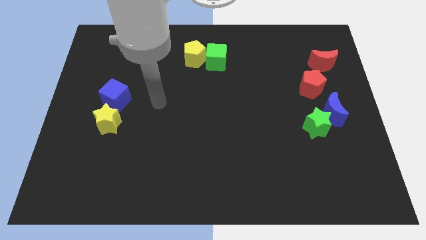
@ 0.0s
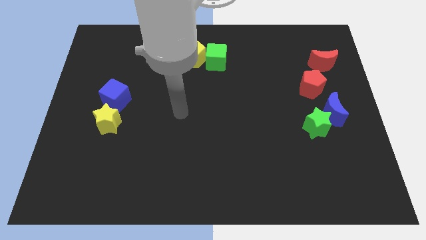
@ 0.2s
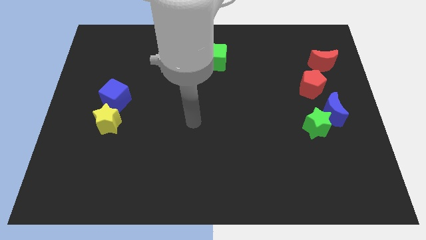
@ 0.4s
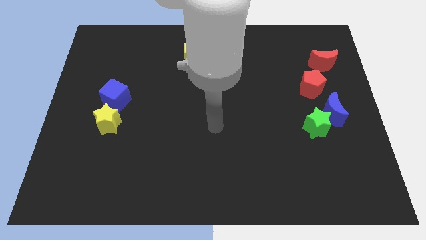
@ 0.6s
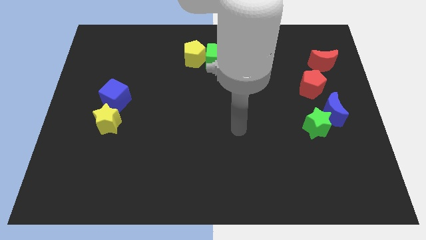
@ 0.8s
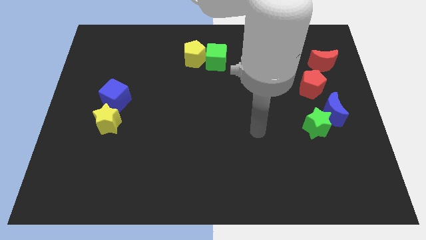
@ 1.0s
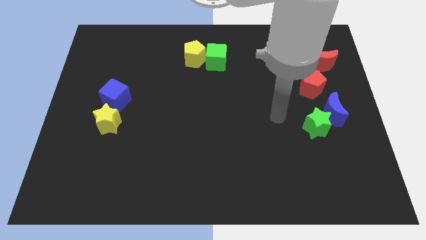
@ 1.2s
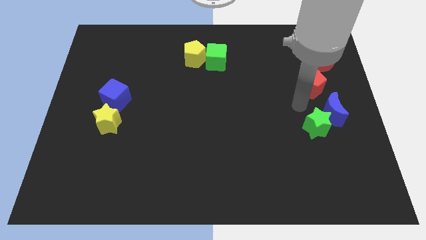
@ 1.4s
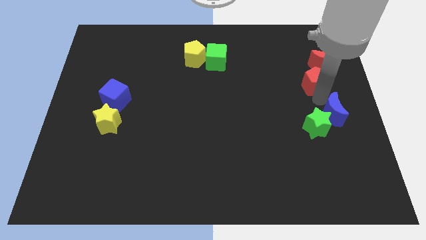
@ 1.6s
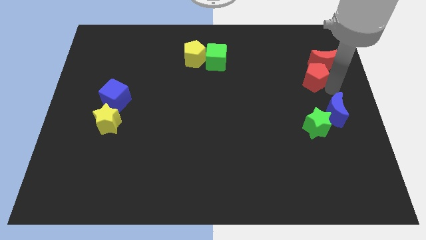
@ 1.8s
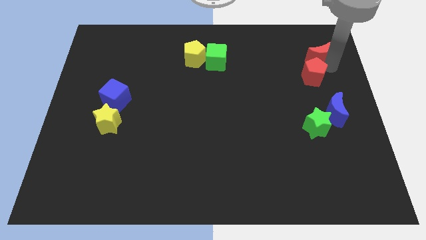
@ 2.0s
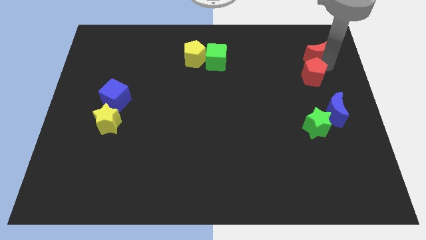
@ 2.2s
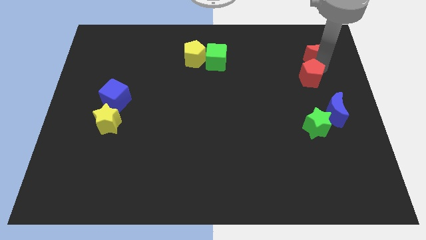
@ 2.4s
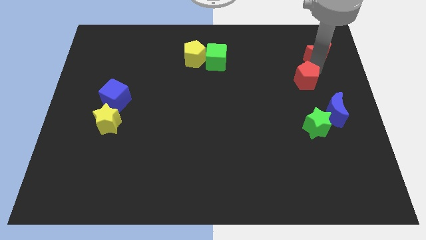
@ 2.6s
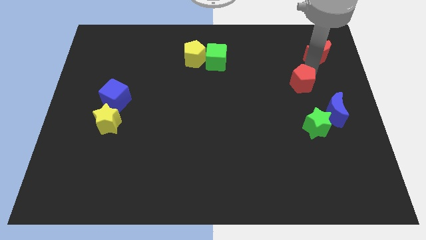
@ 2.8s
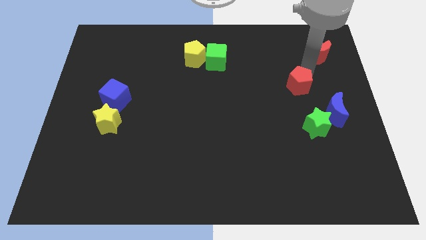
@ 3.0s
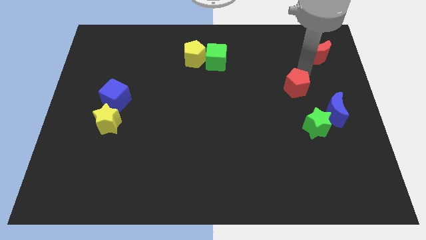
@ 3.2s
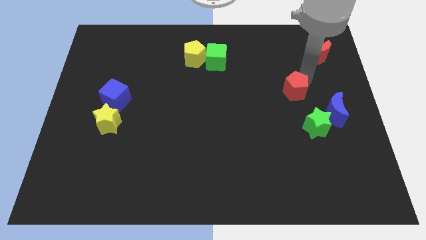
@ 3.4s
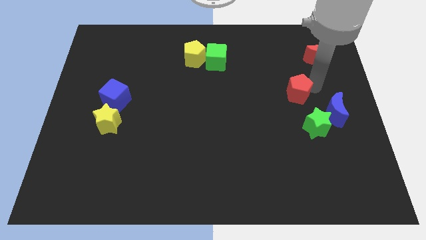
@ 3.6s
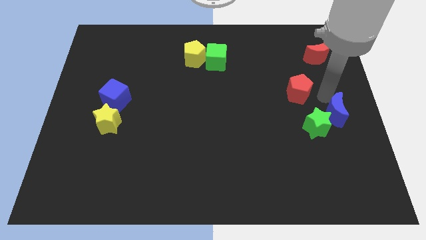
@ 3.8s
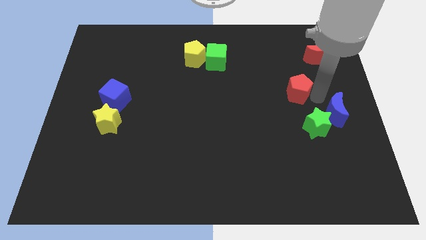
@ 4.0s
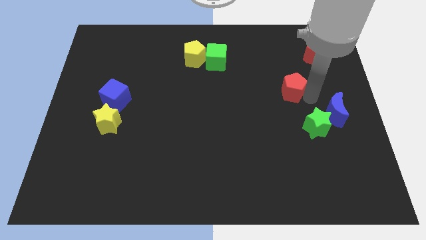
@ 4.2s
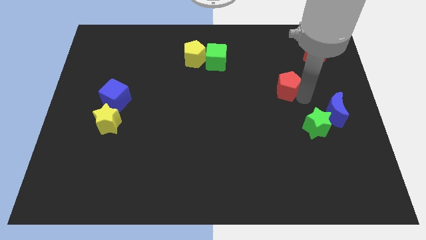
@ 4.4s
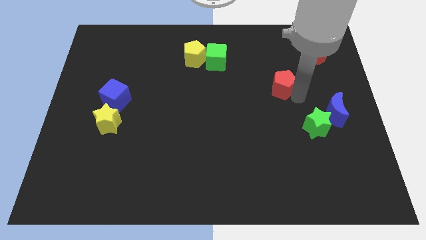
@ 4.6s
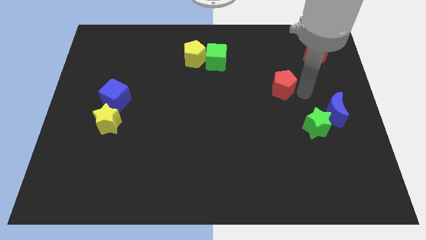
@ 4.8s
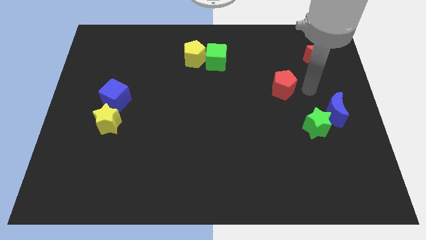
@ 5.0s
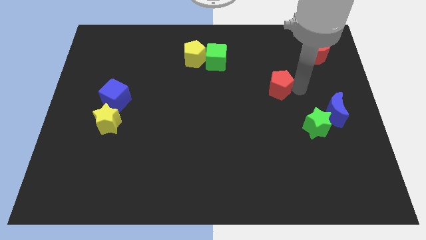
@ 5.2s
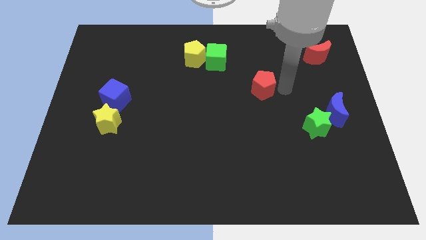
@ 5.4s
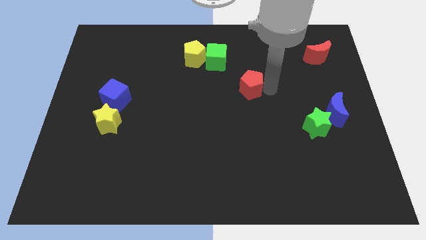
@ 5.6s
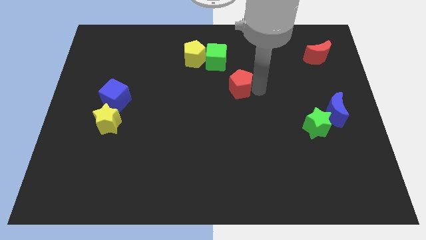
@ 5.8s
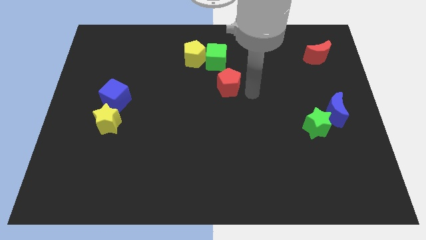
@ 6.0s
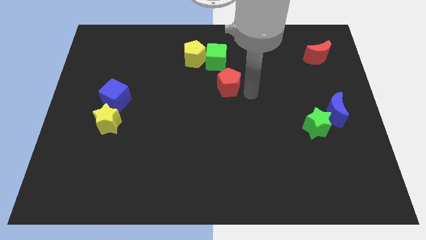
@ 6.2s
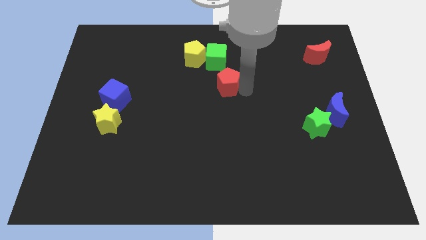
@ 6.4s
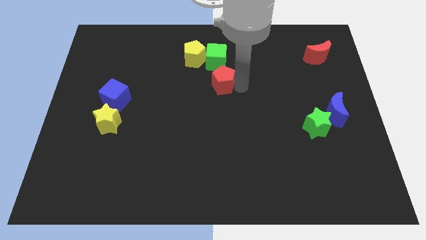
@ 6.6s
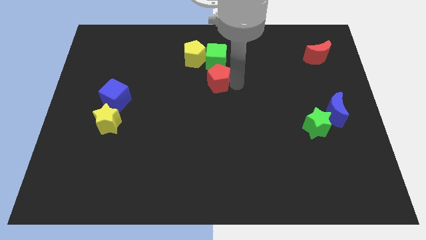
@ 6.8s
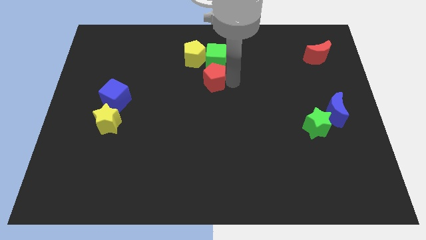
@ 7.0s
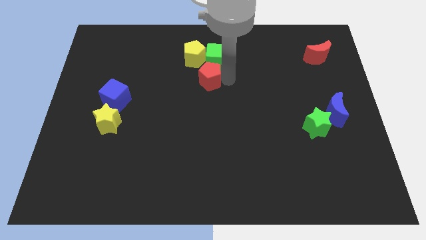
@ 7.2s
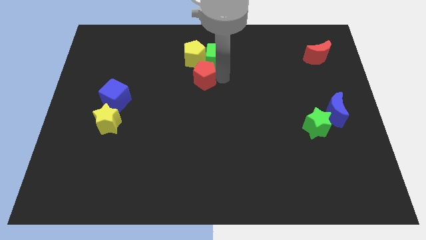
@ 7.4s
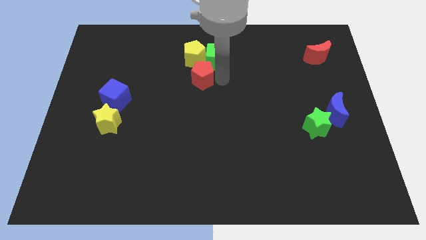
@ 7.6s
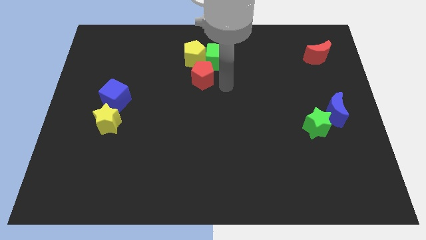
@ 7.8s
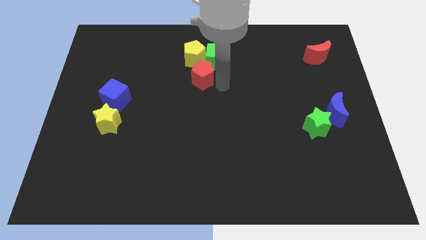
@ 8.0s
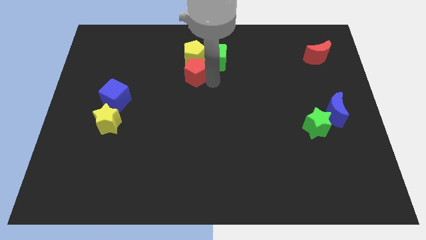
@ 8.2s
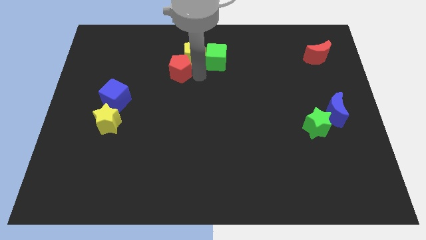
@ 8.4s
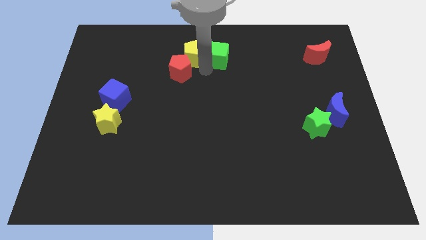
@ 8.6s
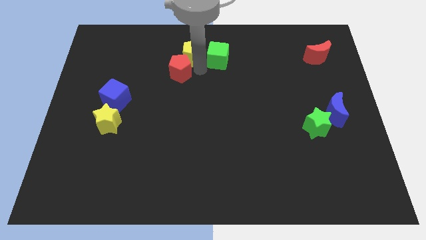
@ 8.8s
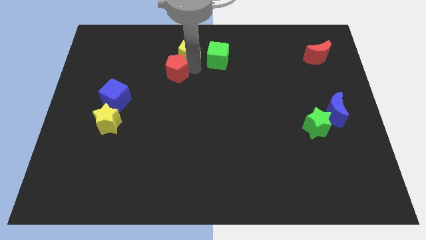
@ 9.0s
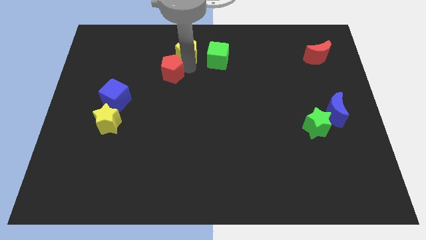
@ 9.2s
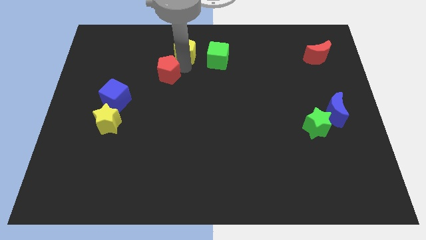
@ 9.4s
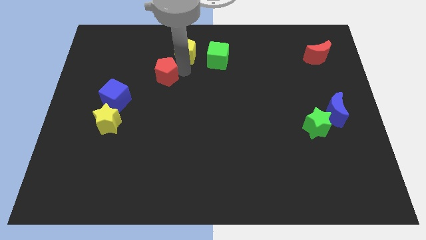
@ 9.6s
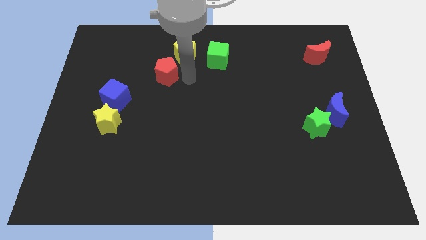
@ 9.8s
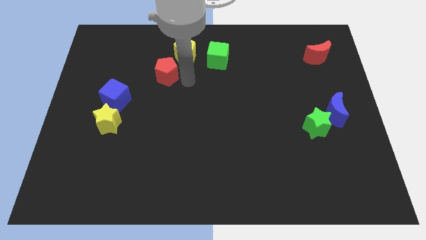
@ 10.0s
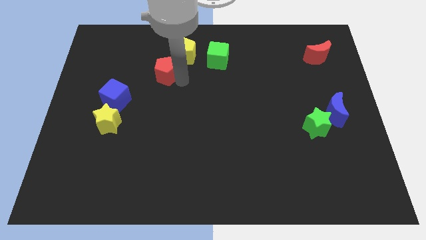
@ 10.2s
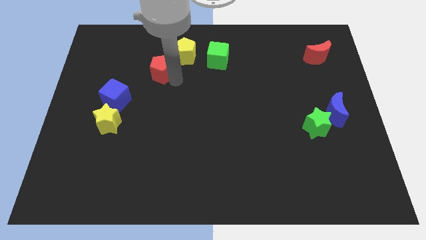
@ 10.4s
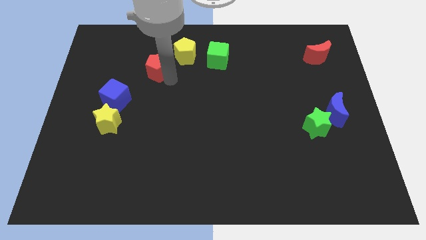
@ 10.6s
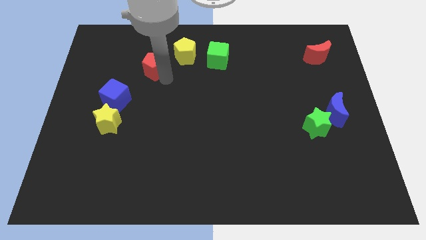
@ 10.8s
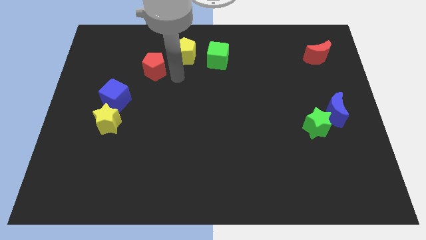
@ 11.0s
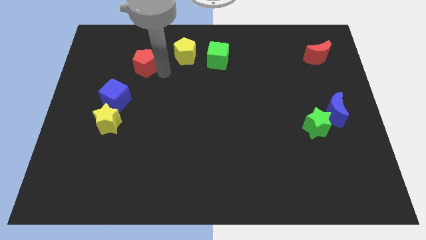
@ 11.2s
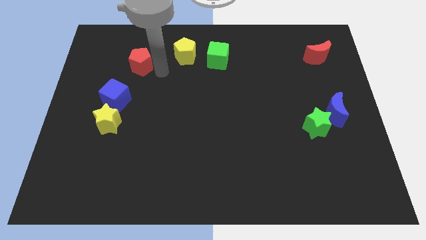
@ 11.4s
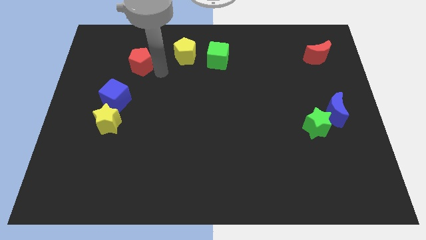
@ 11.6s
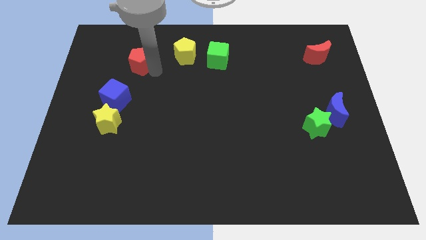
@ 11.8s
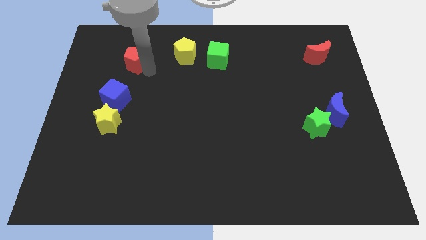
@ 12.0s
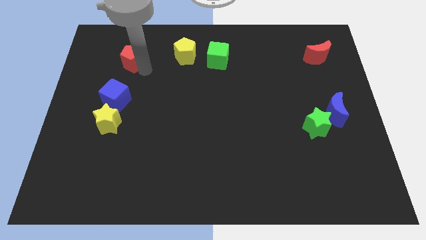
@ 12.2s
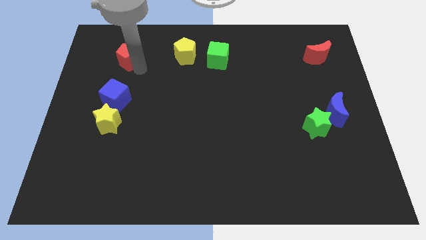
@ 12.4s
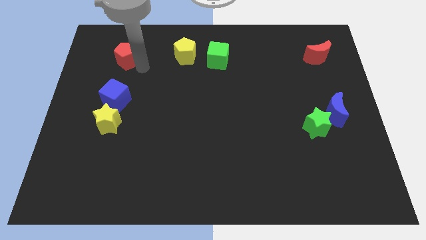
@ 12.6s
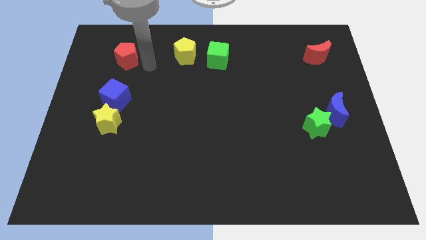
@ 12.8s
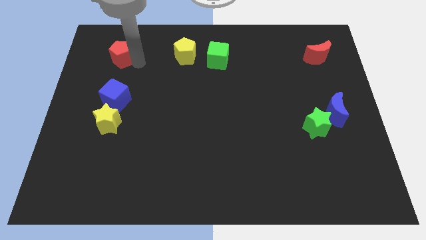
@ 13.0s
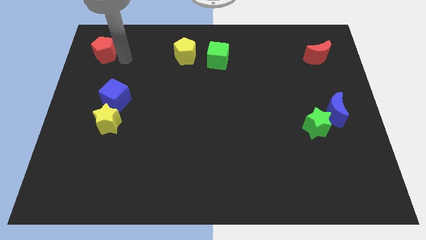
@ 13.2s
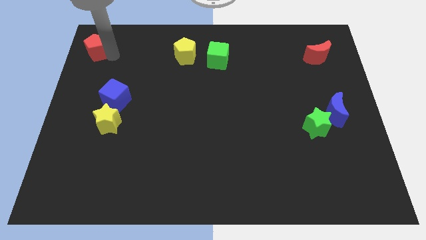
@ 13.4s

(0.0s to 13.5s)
slide the red pentagon to the top left
